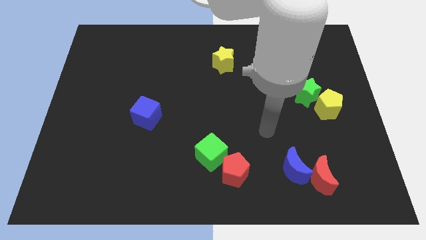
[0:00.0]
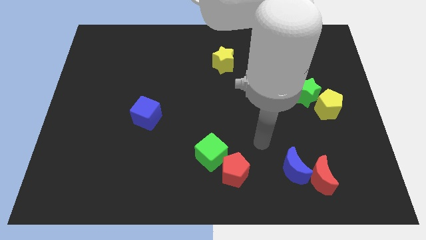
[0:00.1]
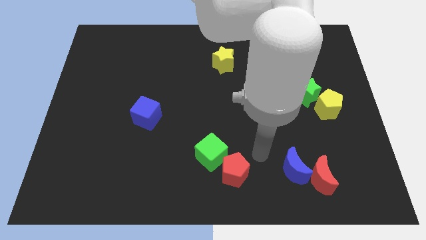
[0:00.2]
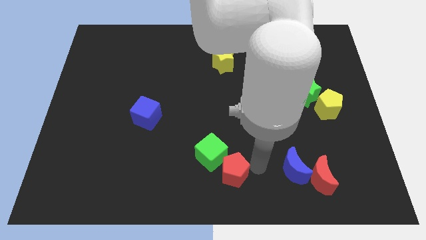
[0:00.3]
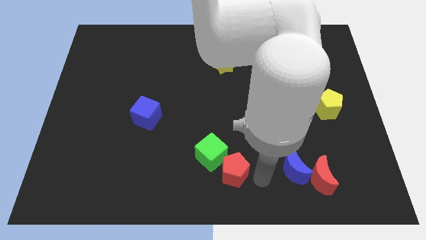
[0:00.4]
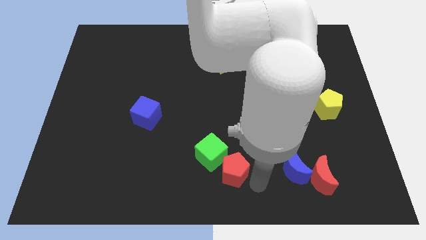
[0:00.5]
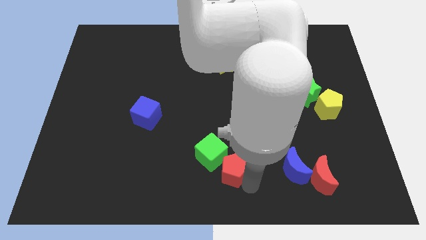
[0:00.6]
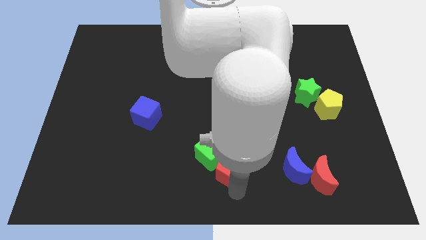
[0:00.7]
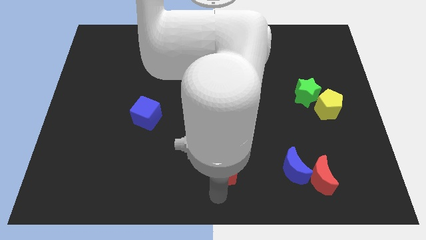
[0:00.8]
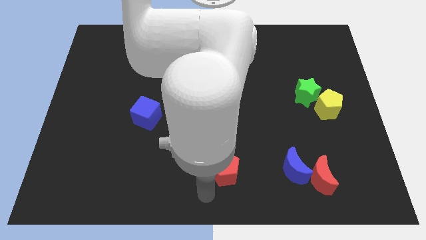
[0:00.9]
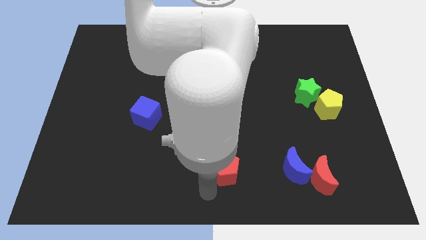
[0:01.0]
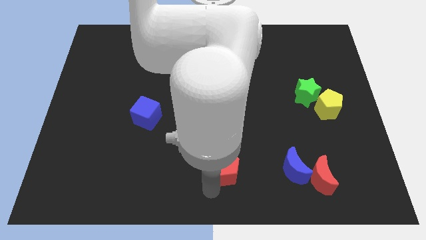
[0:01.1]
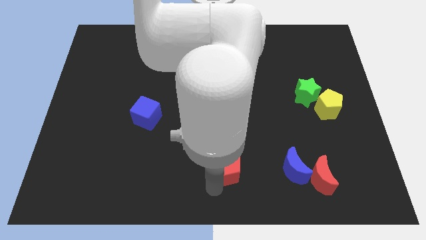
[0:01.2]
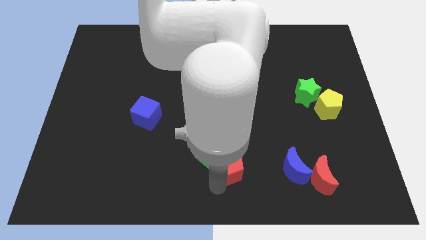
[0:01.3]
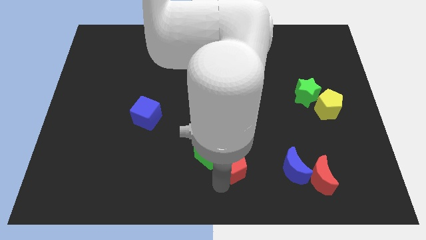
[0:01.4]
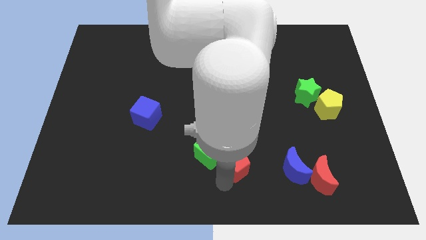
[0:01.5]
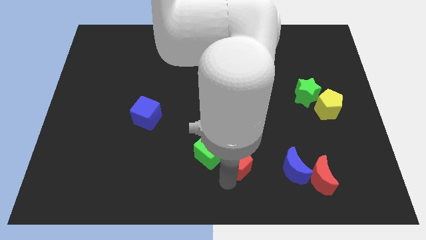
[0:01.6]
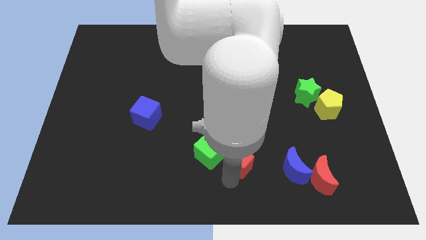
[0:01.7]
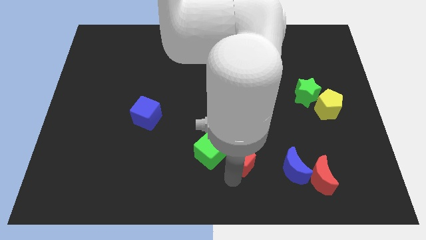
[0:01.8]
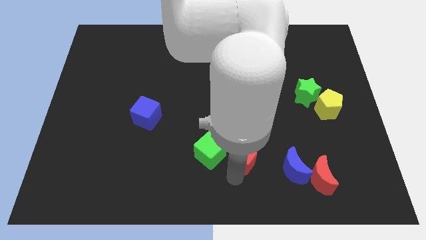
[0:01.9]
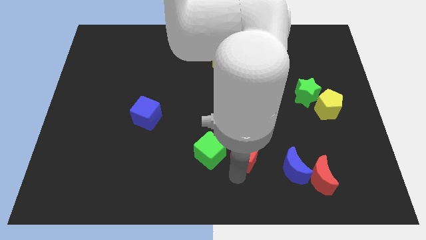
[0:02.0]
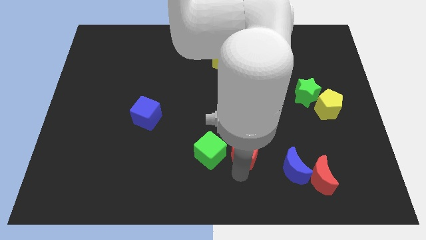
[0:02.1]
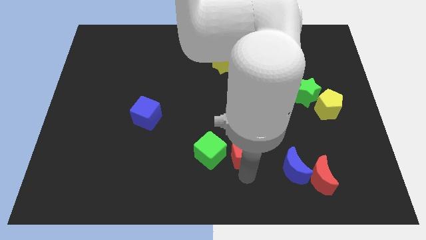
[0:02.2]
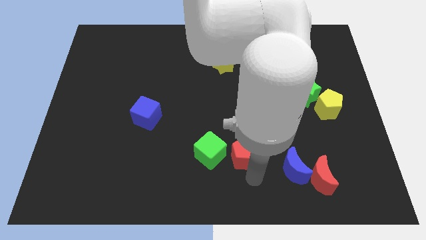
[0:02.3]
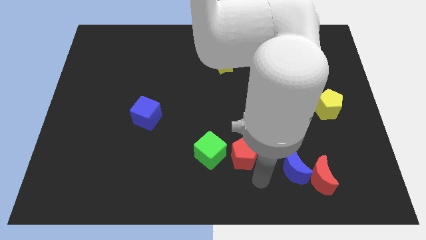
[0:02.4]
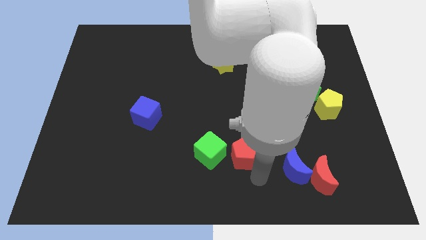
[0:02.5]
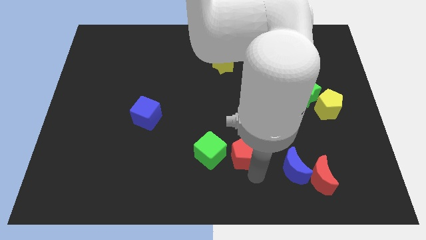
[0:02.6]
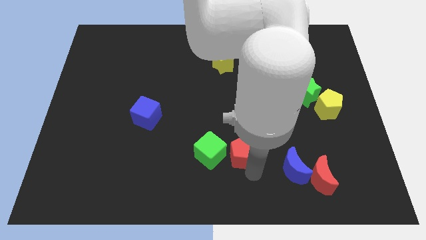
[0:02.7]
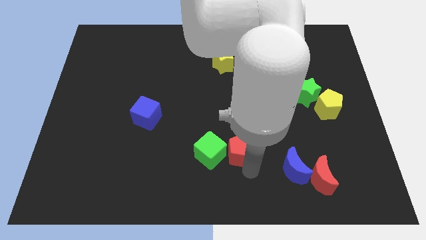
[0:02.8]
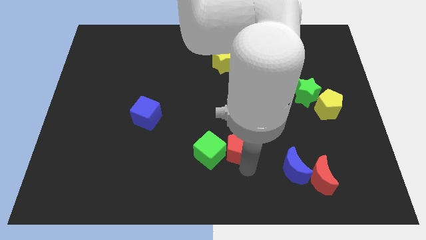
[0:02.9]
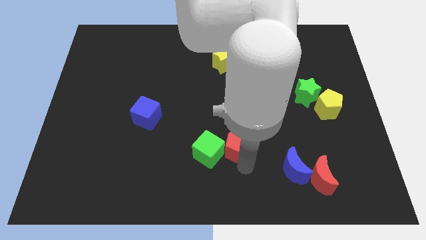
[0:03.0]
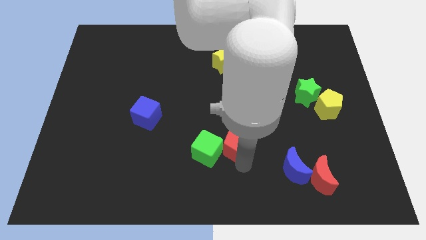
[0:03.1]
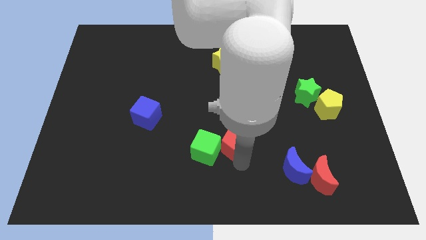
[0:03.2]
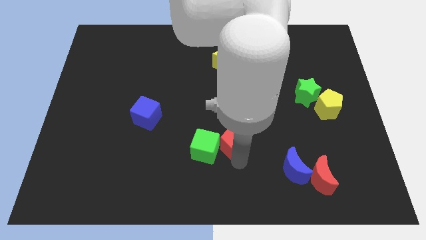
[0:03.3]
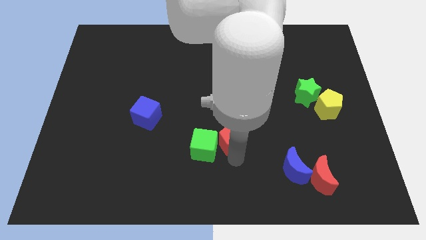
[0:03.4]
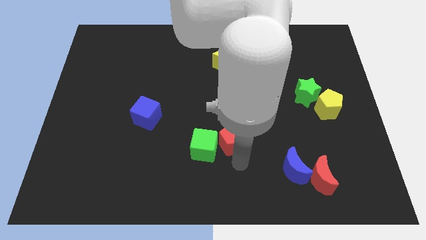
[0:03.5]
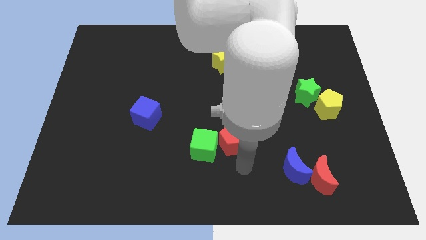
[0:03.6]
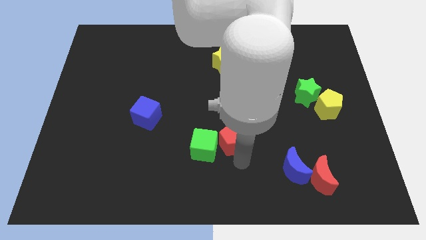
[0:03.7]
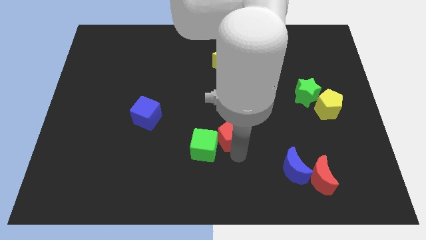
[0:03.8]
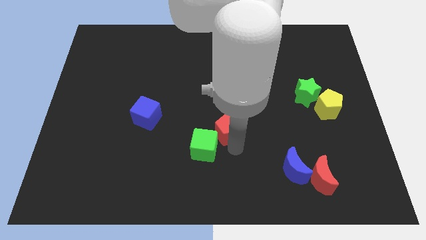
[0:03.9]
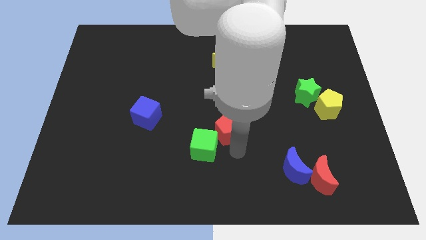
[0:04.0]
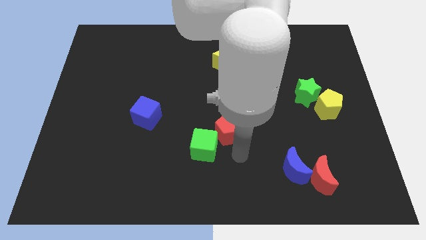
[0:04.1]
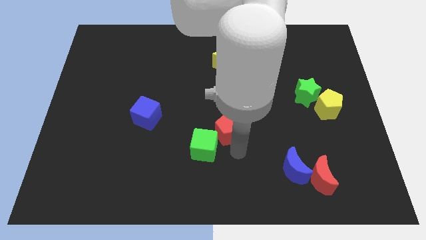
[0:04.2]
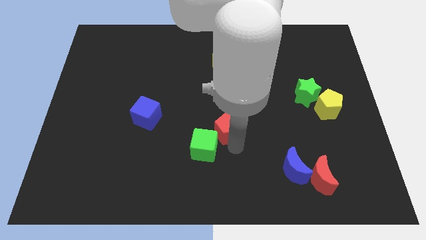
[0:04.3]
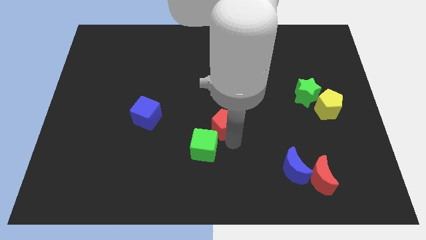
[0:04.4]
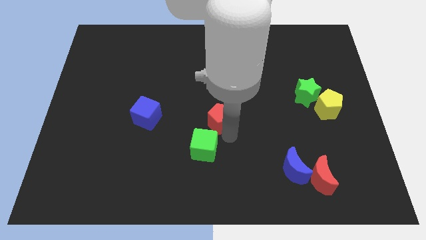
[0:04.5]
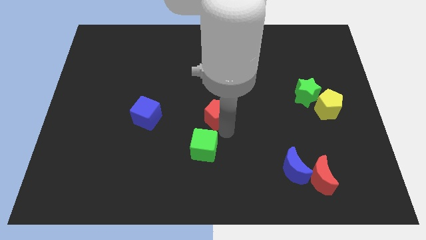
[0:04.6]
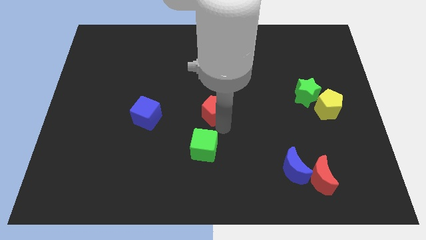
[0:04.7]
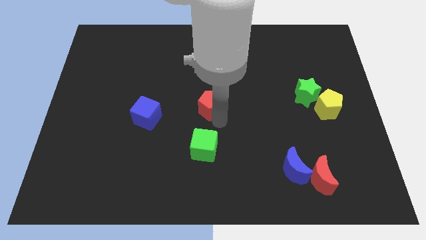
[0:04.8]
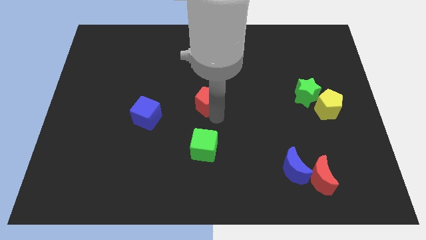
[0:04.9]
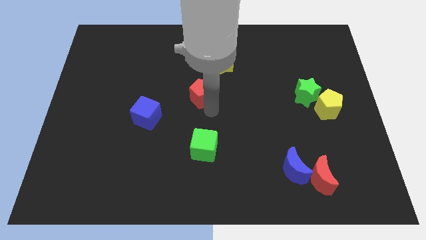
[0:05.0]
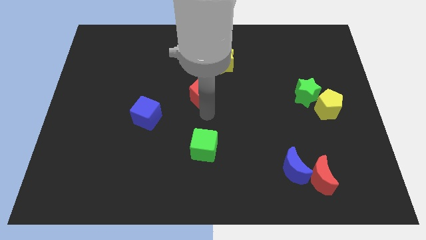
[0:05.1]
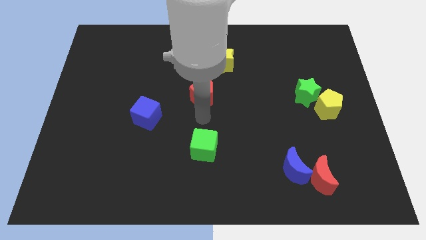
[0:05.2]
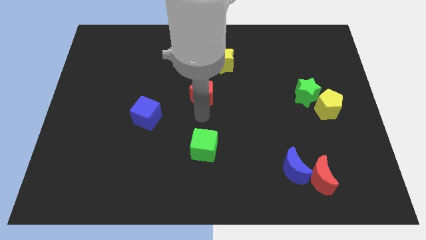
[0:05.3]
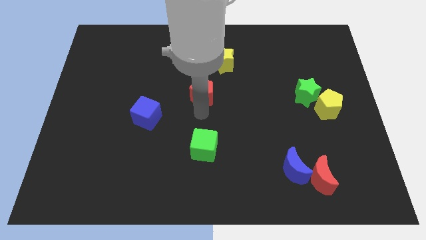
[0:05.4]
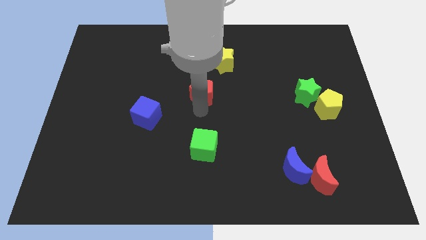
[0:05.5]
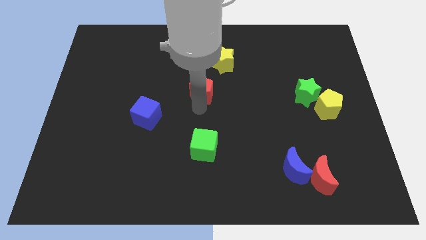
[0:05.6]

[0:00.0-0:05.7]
slide the red pentagon to the bottom left side of the yellow star

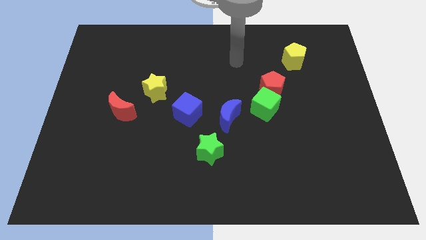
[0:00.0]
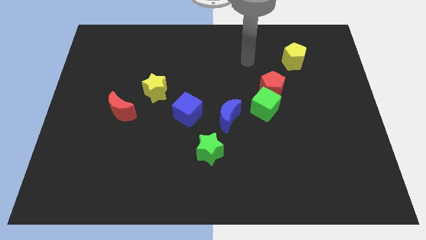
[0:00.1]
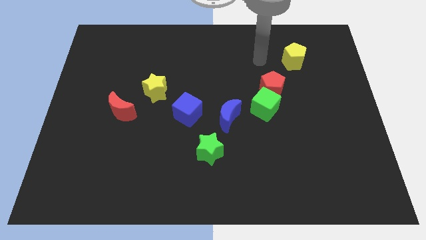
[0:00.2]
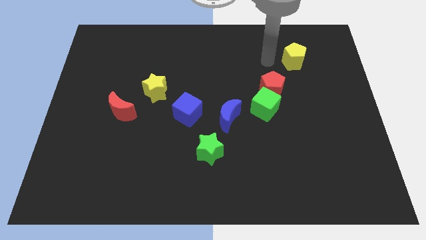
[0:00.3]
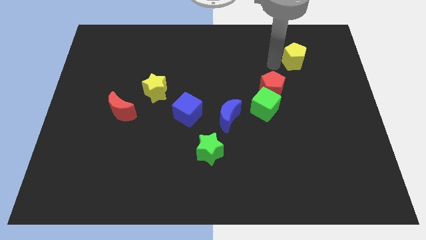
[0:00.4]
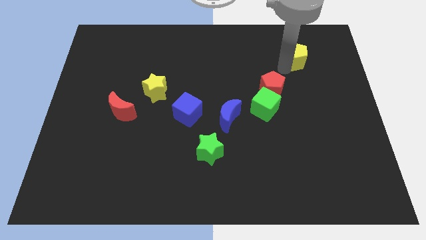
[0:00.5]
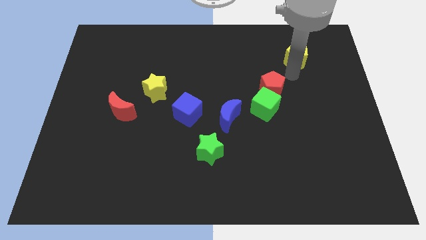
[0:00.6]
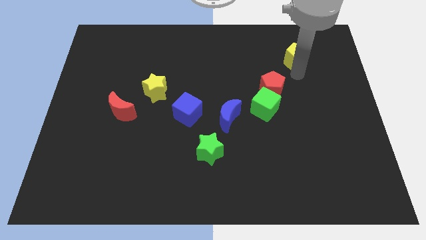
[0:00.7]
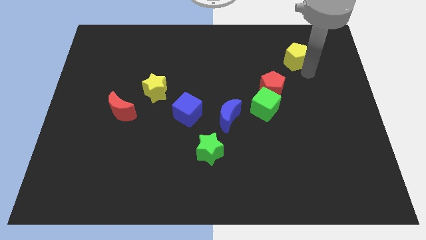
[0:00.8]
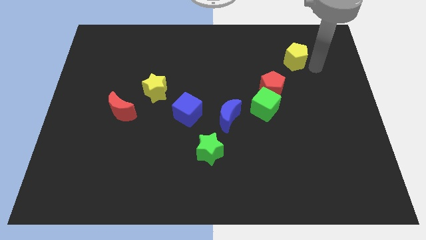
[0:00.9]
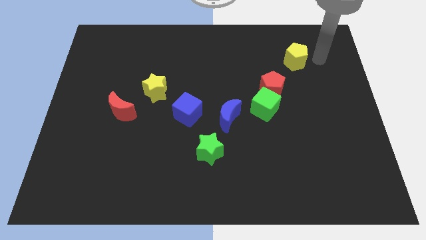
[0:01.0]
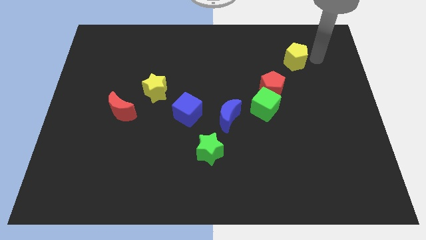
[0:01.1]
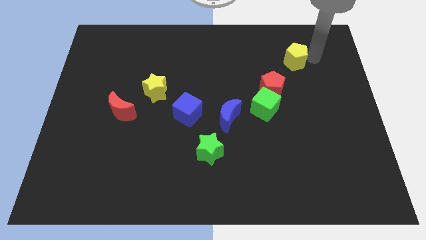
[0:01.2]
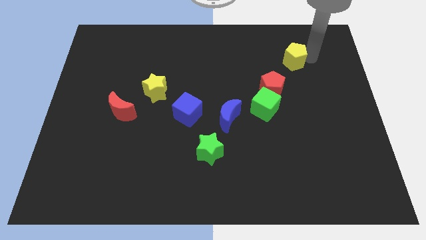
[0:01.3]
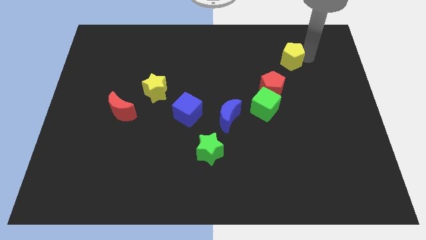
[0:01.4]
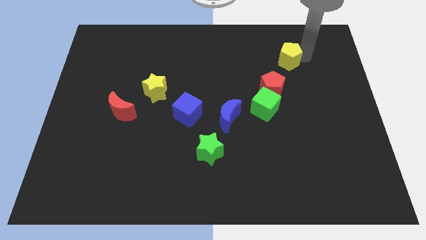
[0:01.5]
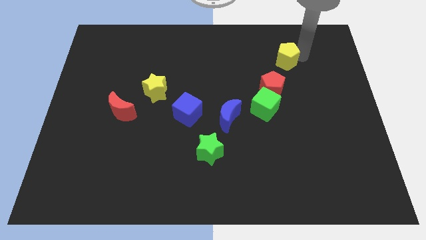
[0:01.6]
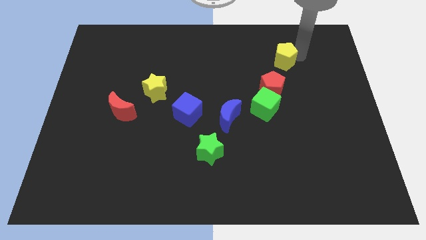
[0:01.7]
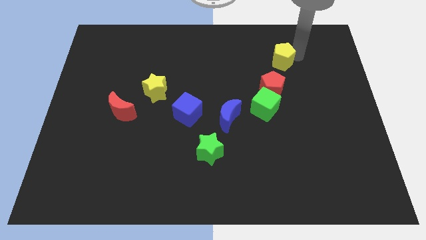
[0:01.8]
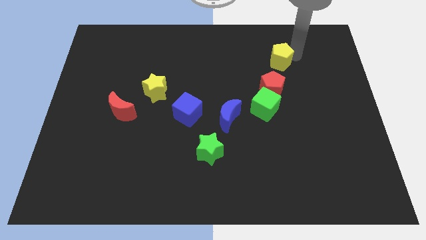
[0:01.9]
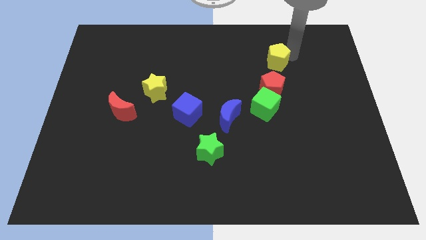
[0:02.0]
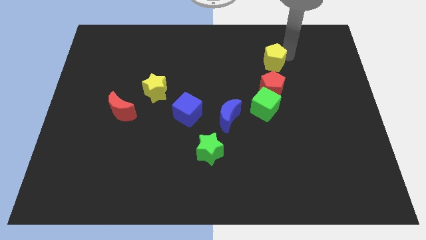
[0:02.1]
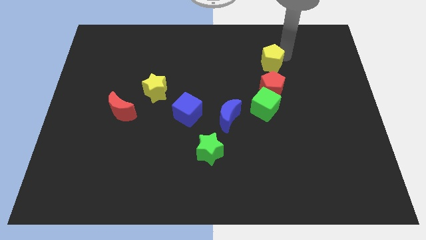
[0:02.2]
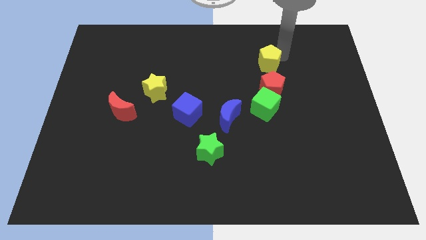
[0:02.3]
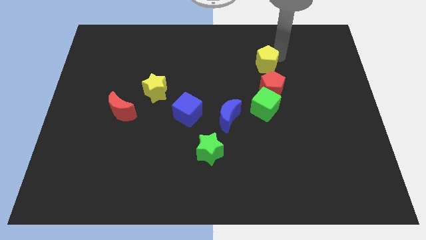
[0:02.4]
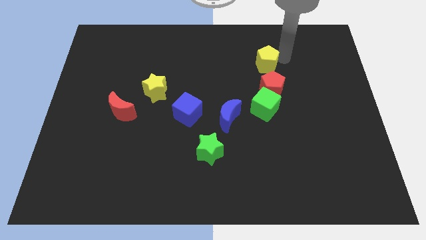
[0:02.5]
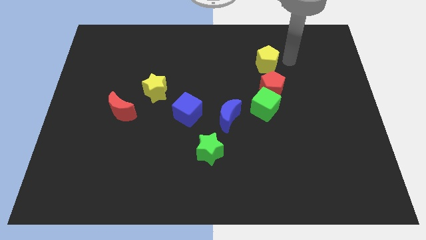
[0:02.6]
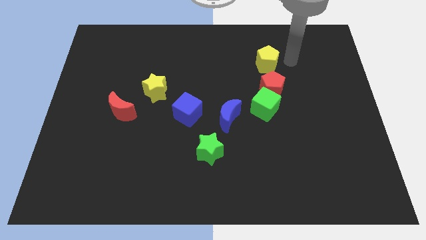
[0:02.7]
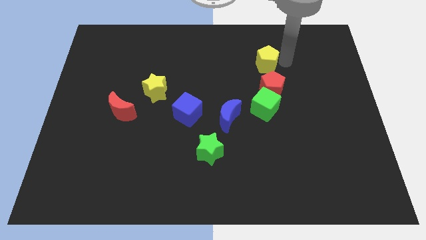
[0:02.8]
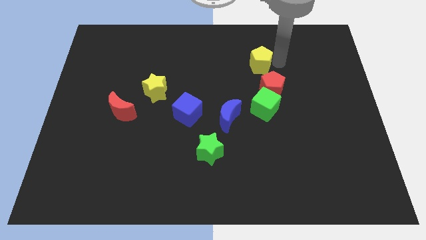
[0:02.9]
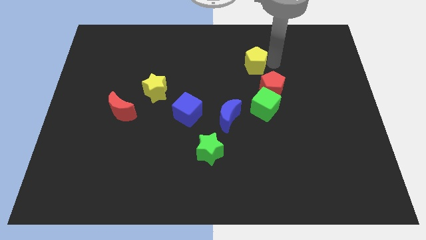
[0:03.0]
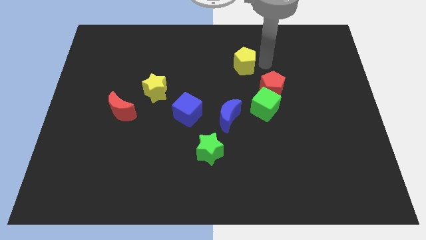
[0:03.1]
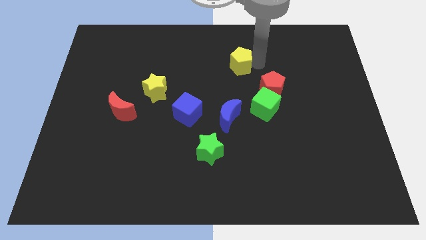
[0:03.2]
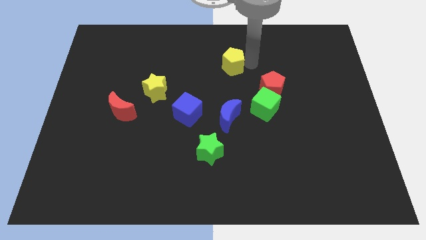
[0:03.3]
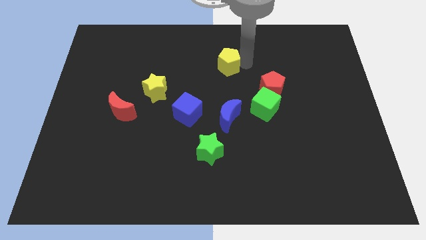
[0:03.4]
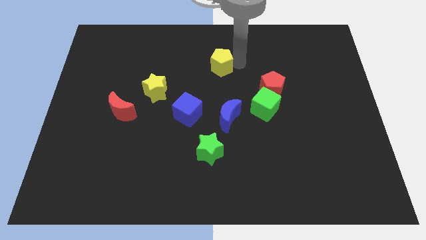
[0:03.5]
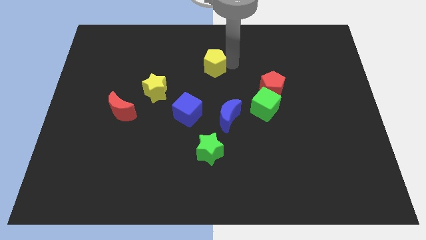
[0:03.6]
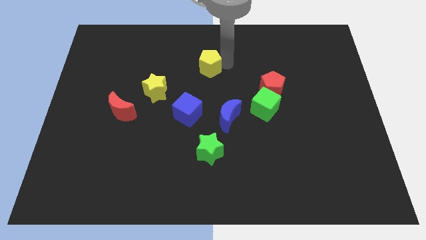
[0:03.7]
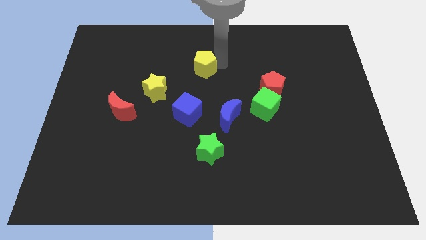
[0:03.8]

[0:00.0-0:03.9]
put the yellow pentagon to the top side of the blue cube
